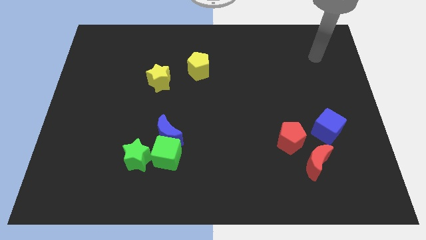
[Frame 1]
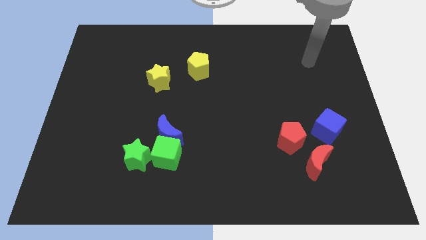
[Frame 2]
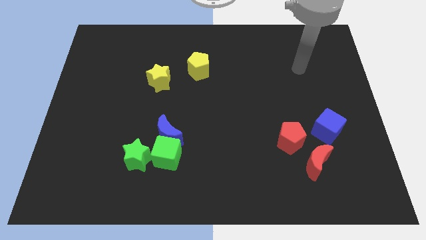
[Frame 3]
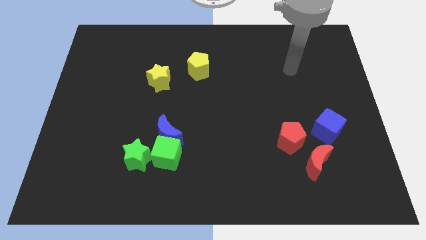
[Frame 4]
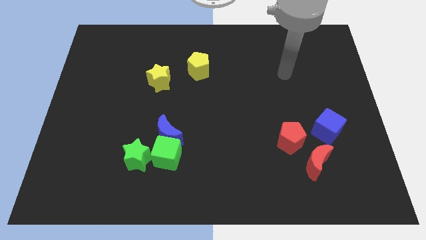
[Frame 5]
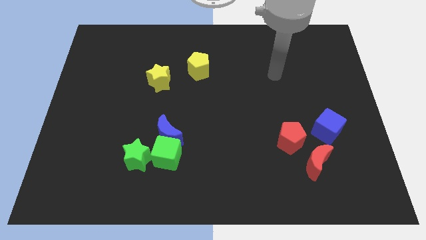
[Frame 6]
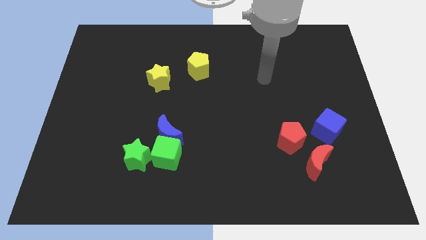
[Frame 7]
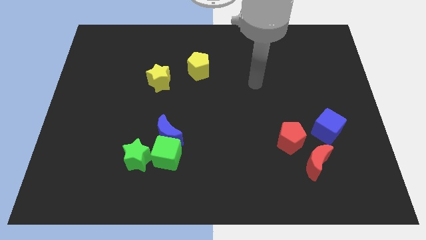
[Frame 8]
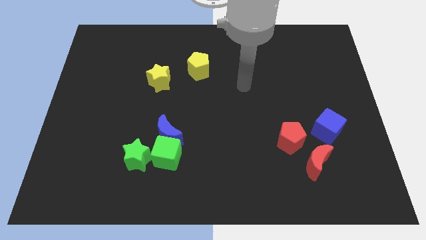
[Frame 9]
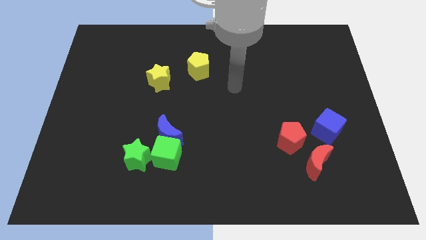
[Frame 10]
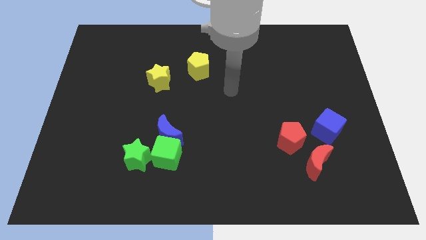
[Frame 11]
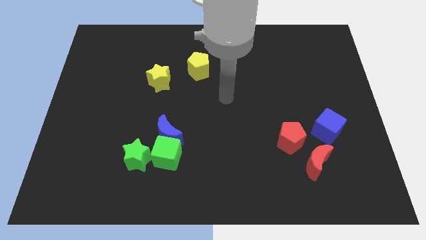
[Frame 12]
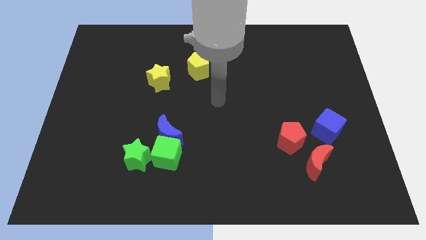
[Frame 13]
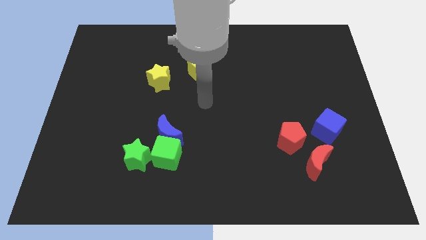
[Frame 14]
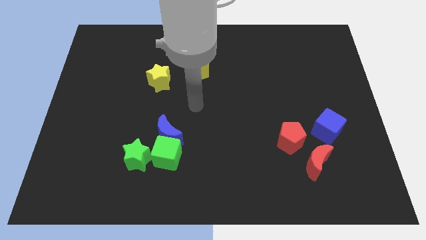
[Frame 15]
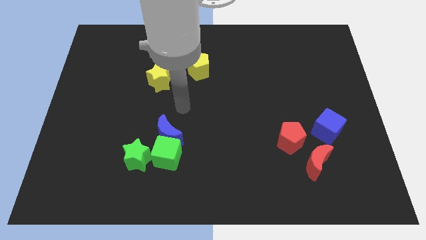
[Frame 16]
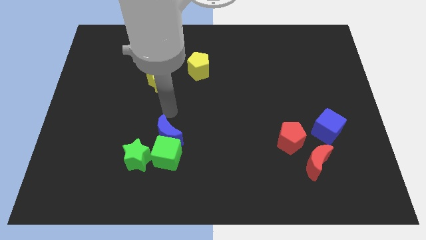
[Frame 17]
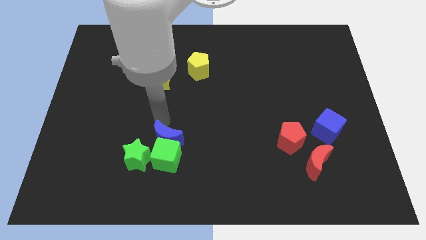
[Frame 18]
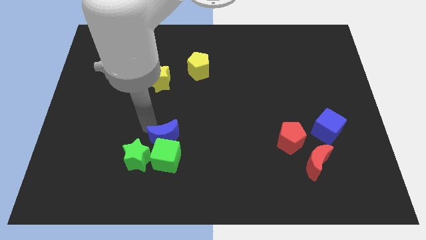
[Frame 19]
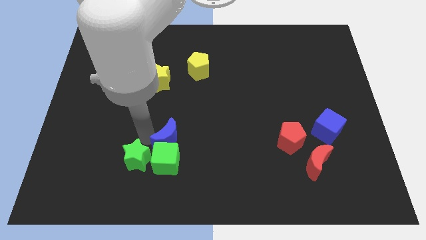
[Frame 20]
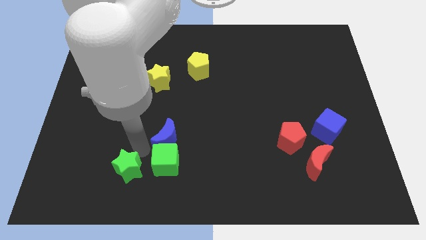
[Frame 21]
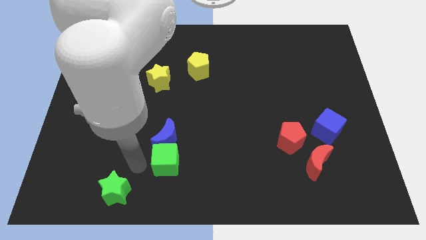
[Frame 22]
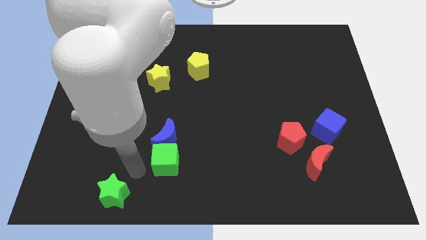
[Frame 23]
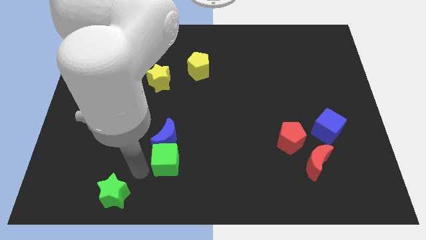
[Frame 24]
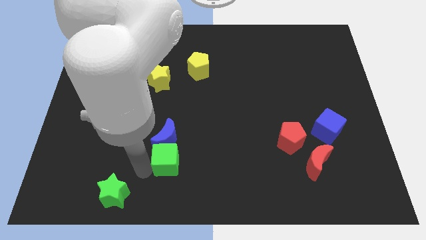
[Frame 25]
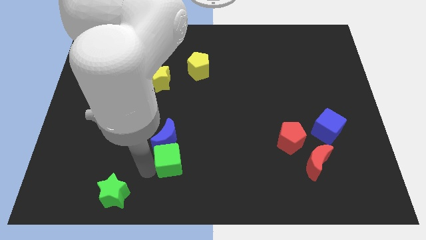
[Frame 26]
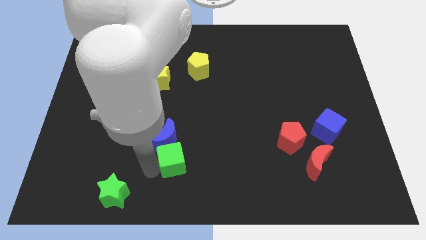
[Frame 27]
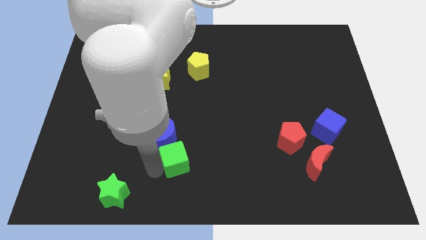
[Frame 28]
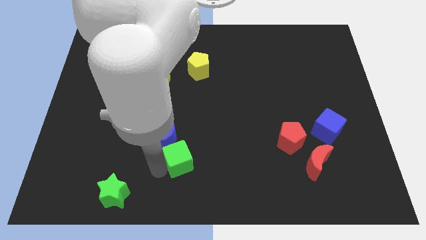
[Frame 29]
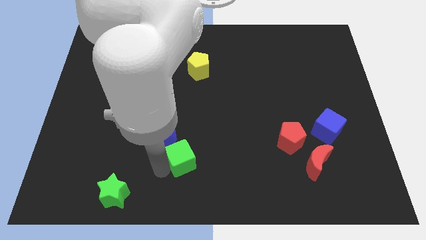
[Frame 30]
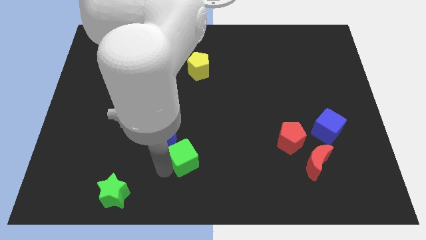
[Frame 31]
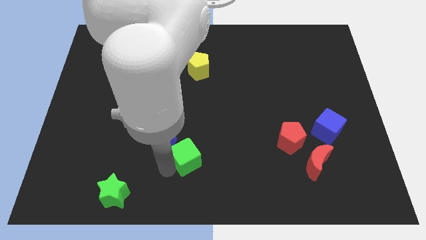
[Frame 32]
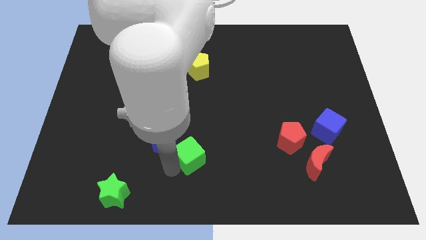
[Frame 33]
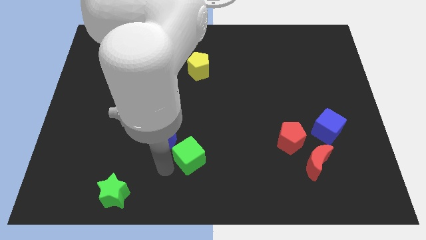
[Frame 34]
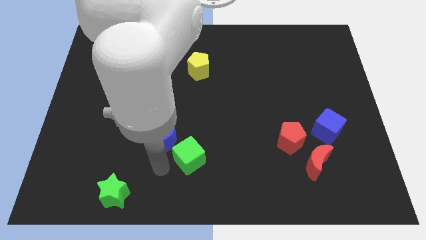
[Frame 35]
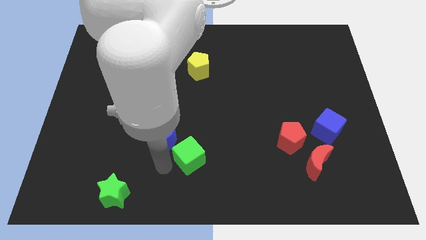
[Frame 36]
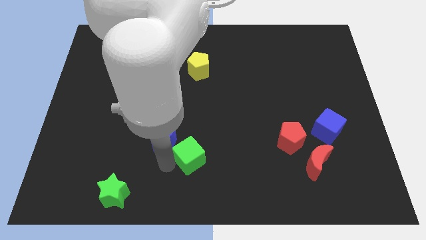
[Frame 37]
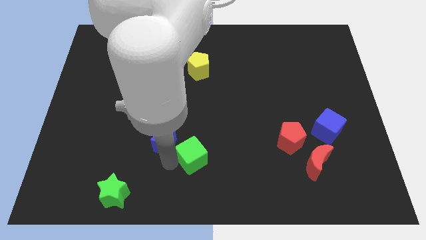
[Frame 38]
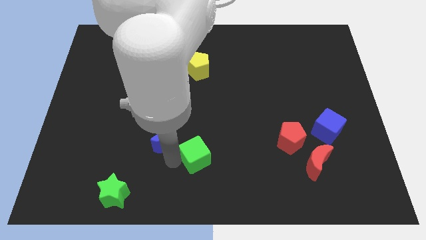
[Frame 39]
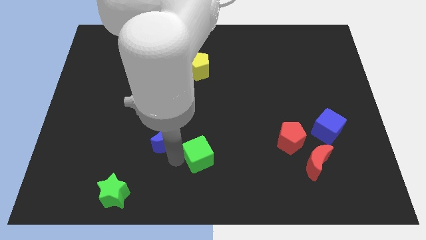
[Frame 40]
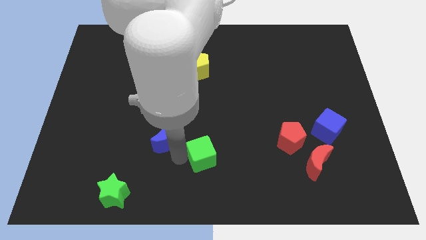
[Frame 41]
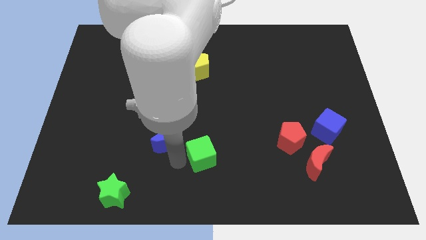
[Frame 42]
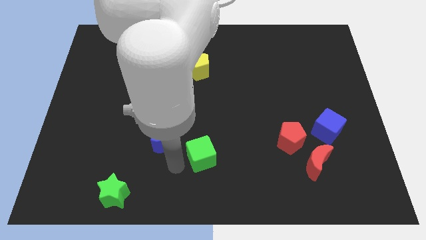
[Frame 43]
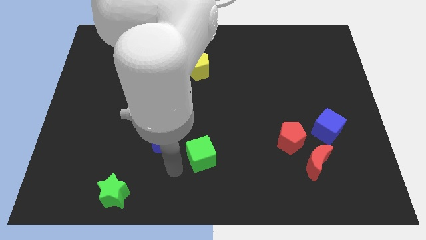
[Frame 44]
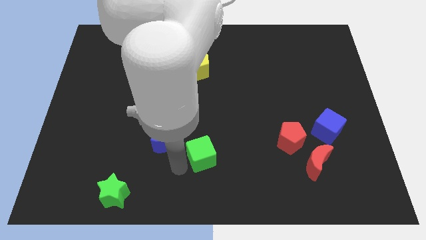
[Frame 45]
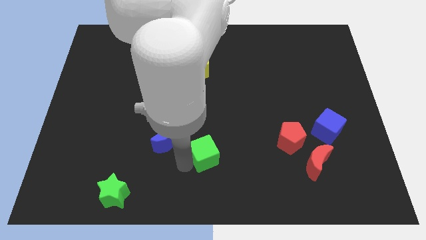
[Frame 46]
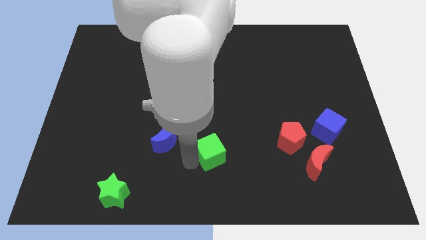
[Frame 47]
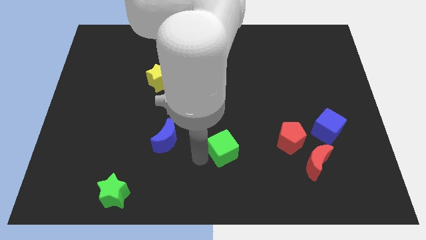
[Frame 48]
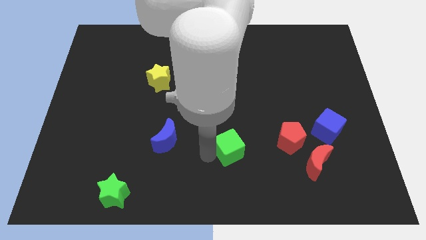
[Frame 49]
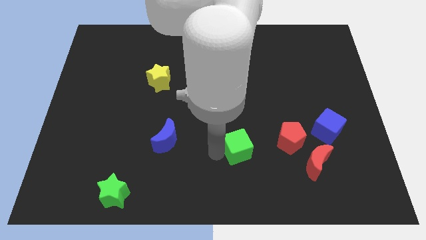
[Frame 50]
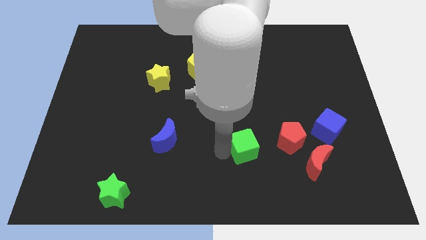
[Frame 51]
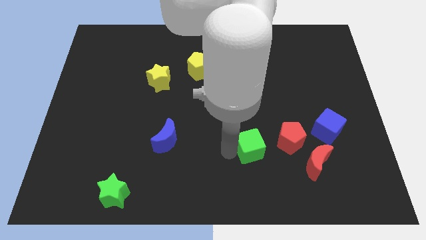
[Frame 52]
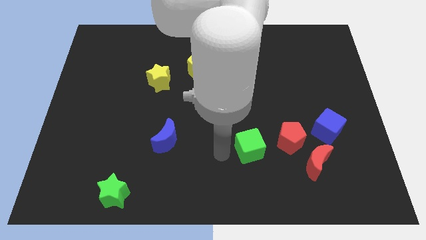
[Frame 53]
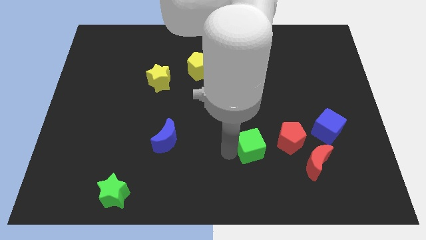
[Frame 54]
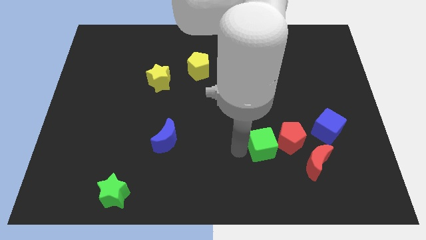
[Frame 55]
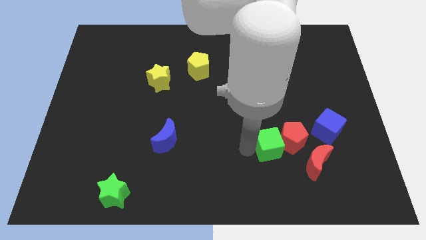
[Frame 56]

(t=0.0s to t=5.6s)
put the green cube close to the red pentagon

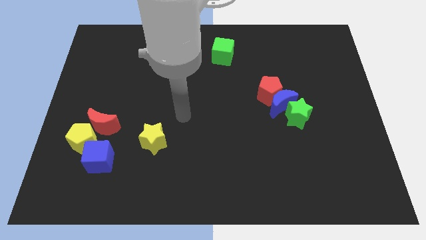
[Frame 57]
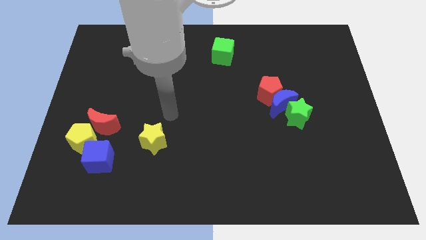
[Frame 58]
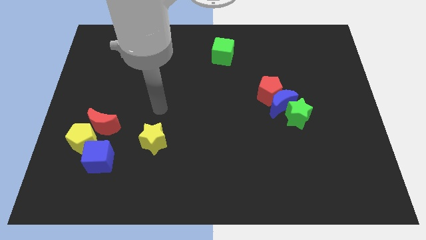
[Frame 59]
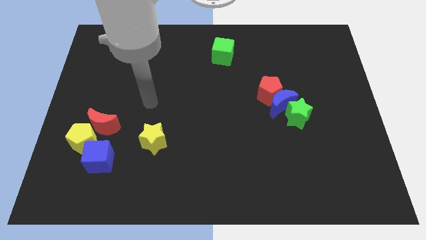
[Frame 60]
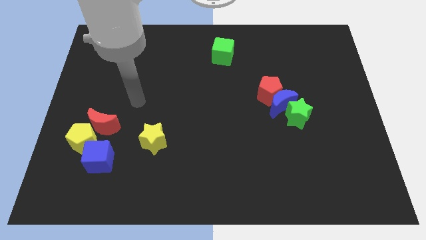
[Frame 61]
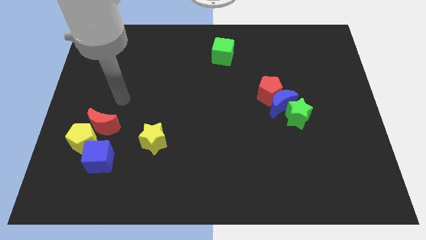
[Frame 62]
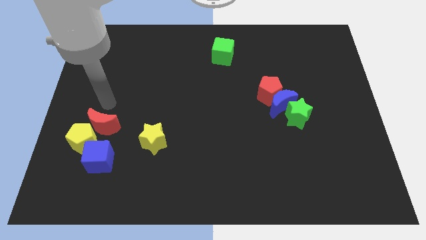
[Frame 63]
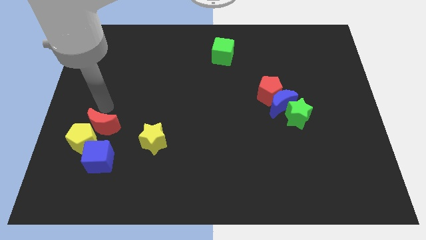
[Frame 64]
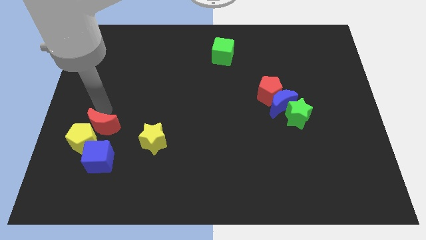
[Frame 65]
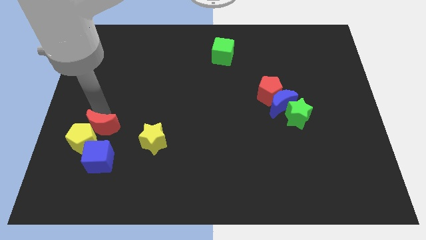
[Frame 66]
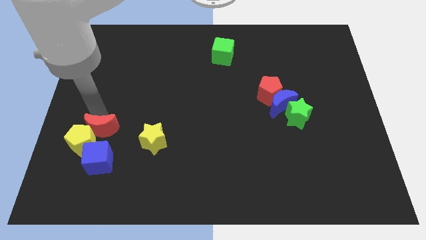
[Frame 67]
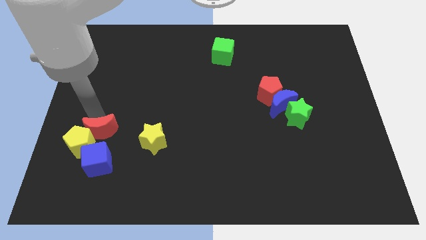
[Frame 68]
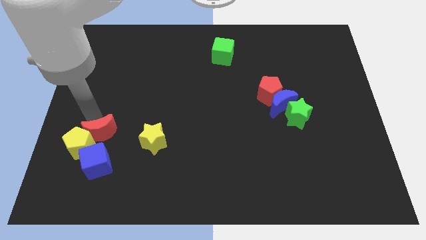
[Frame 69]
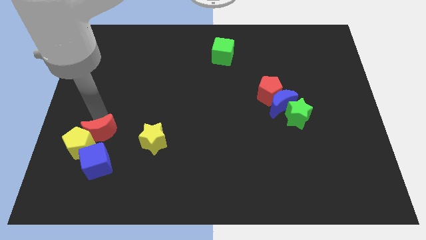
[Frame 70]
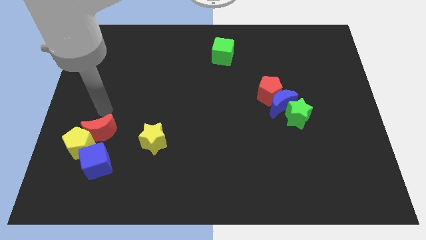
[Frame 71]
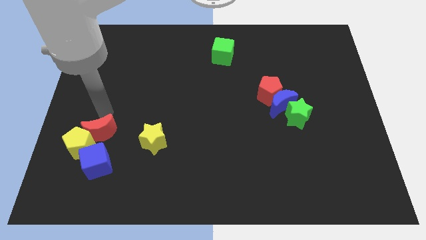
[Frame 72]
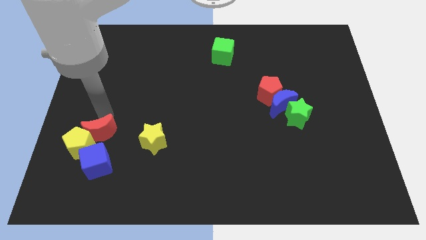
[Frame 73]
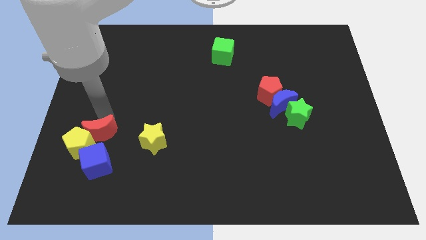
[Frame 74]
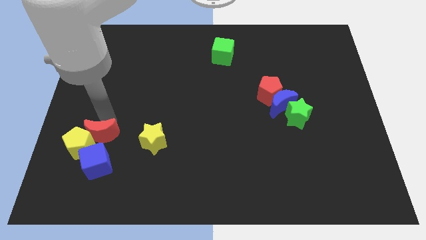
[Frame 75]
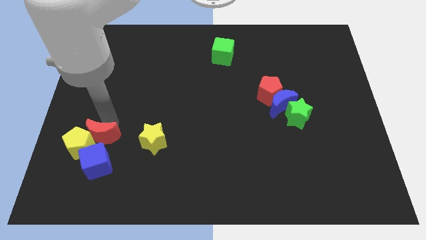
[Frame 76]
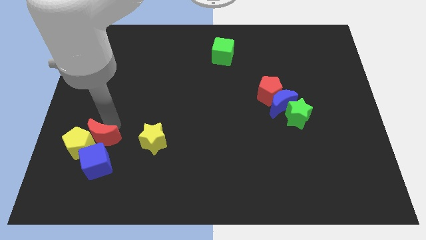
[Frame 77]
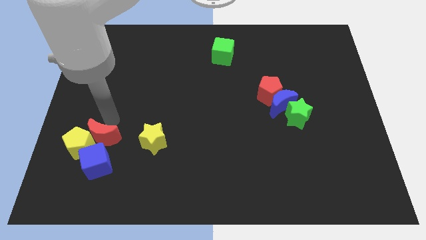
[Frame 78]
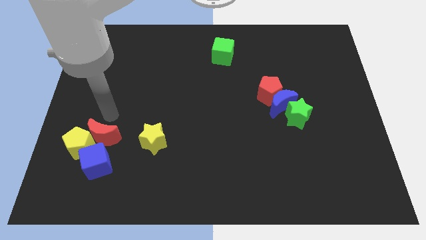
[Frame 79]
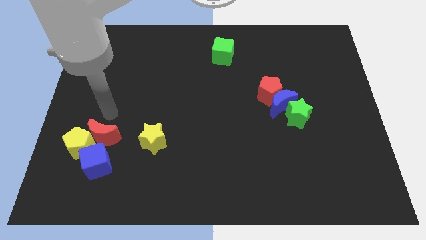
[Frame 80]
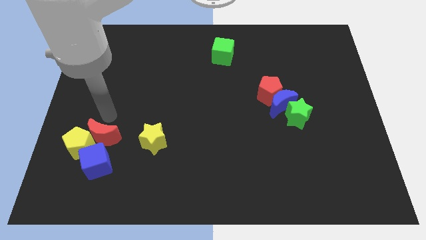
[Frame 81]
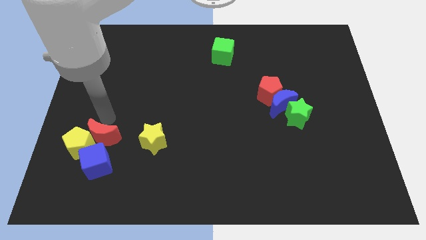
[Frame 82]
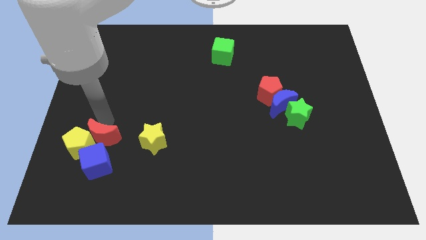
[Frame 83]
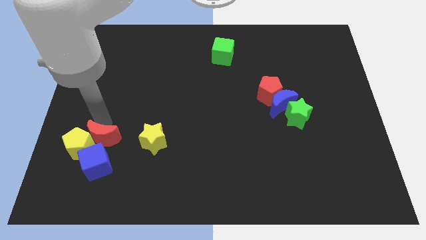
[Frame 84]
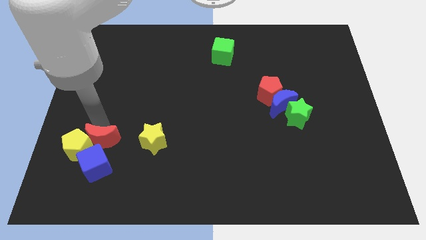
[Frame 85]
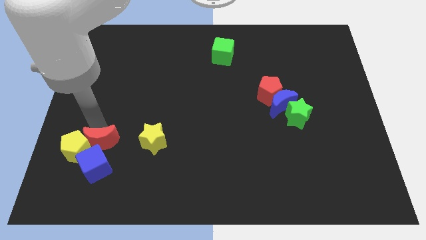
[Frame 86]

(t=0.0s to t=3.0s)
slide the red moon close to the blue cube
